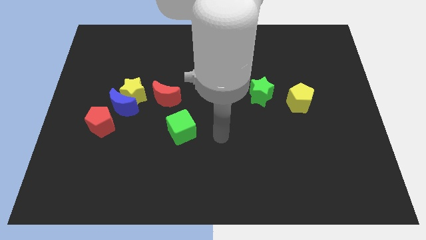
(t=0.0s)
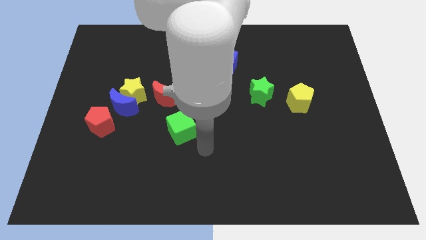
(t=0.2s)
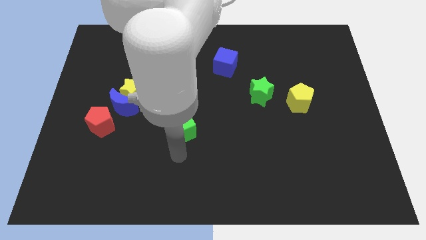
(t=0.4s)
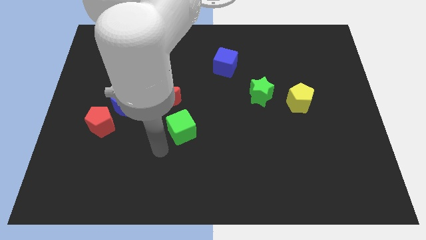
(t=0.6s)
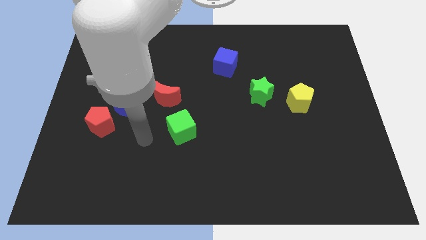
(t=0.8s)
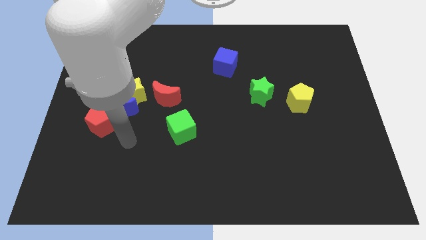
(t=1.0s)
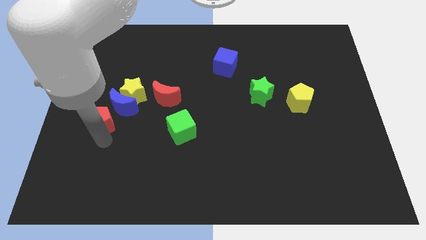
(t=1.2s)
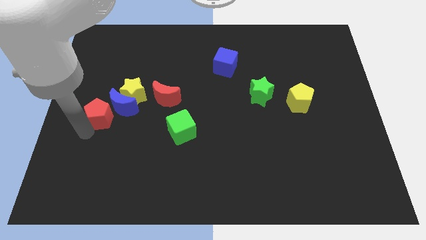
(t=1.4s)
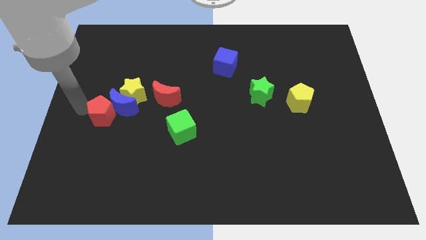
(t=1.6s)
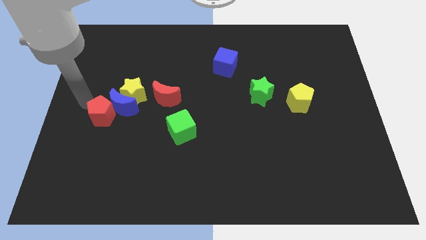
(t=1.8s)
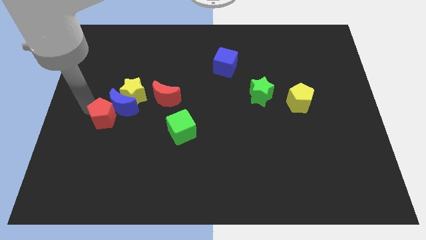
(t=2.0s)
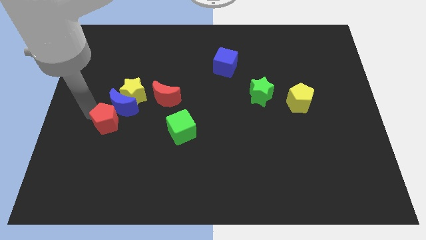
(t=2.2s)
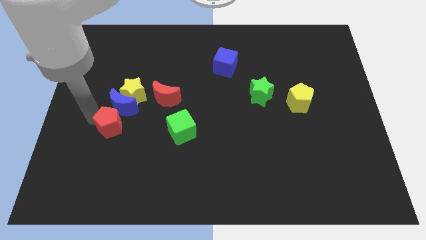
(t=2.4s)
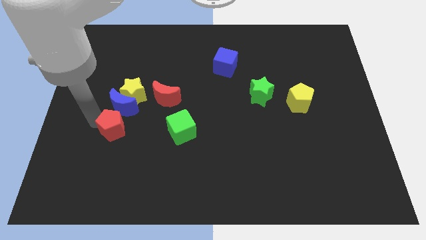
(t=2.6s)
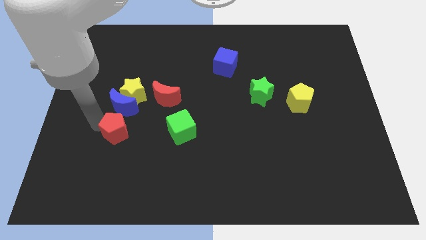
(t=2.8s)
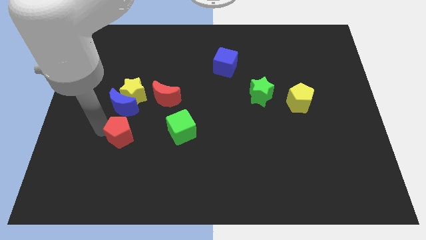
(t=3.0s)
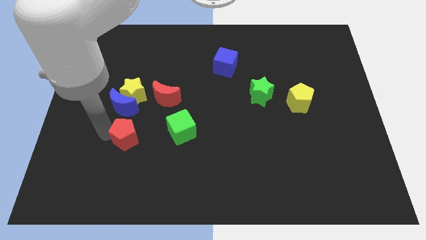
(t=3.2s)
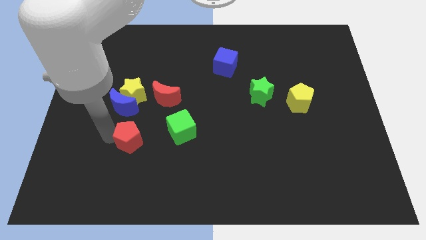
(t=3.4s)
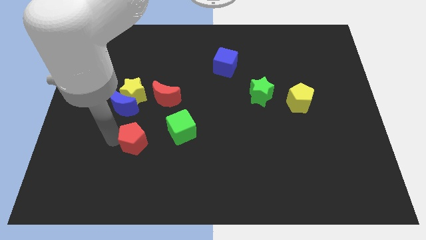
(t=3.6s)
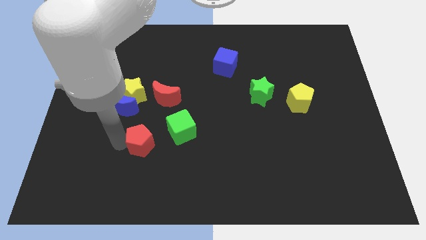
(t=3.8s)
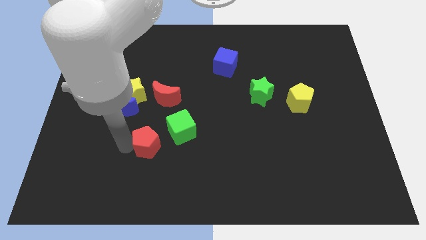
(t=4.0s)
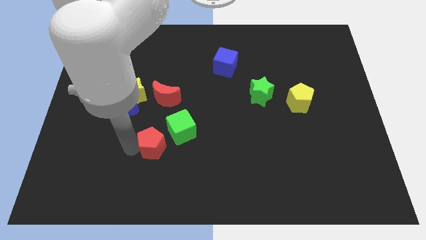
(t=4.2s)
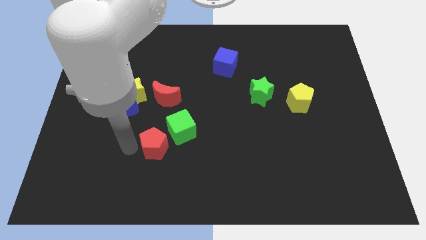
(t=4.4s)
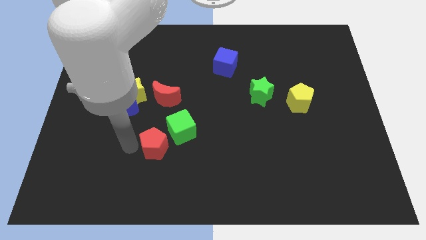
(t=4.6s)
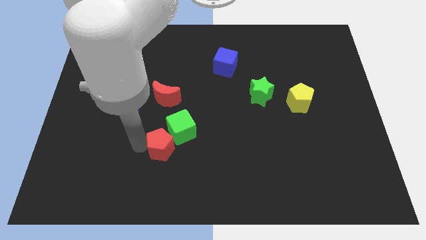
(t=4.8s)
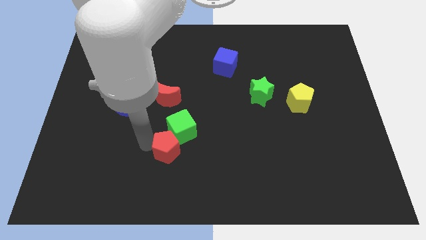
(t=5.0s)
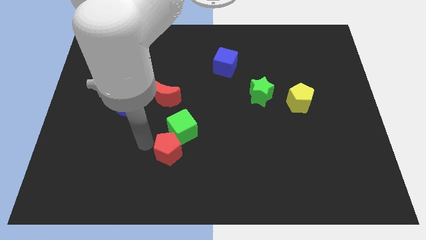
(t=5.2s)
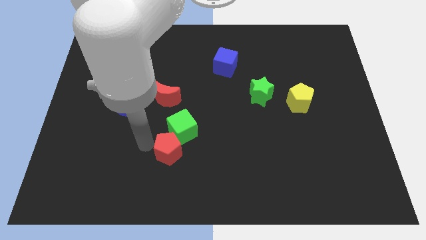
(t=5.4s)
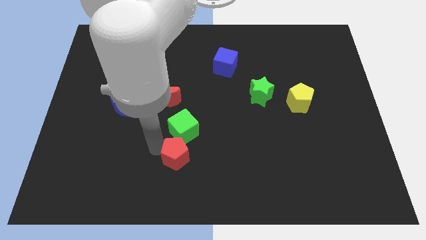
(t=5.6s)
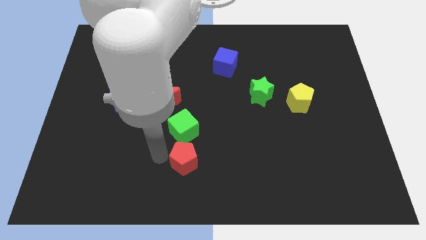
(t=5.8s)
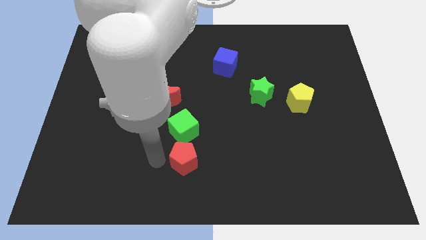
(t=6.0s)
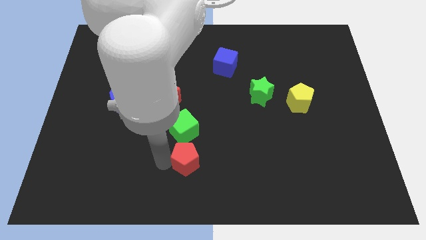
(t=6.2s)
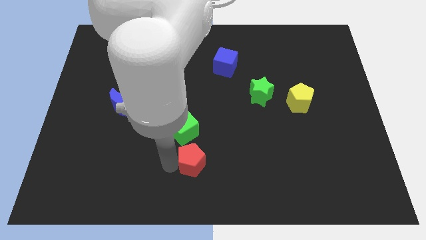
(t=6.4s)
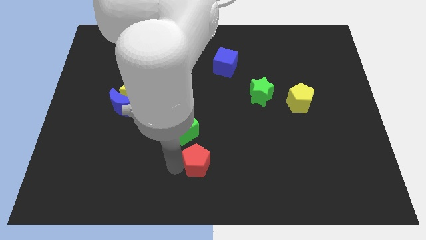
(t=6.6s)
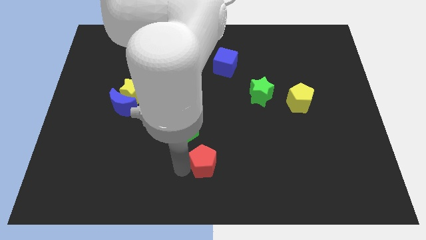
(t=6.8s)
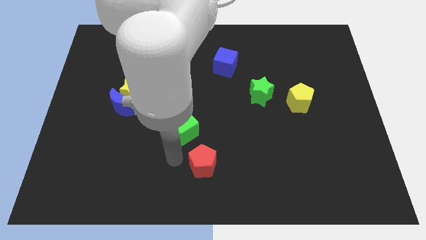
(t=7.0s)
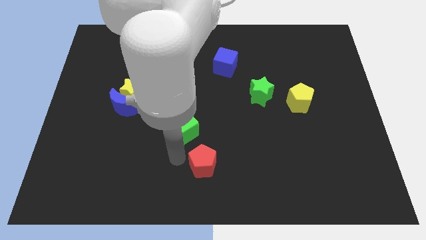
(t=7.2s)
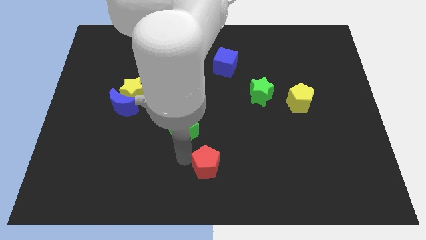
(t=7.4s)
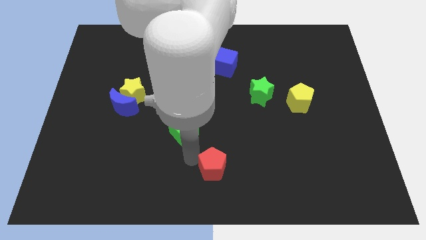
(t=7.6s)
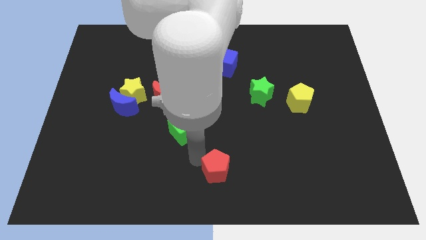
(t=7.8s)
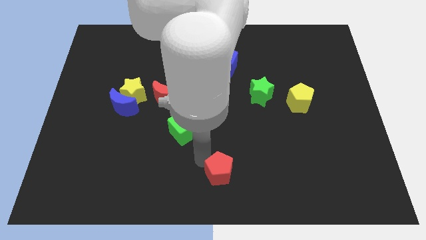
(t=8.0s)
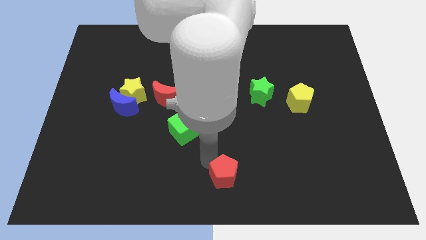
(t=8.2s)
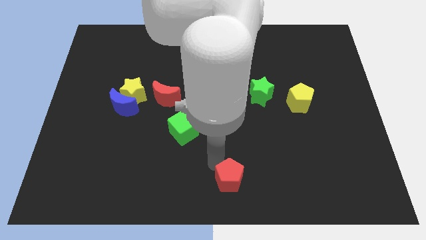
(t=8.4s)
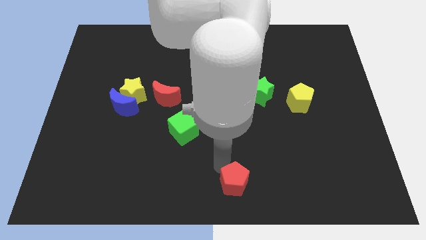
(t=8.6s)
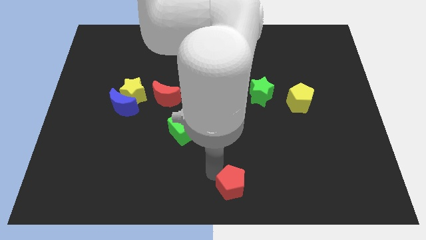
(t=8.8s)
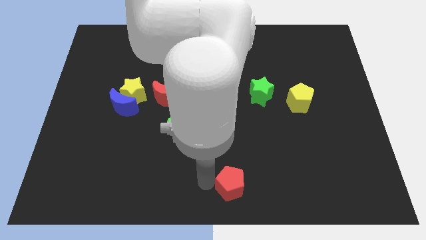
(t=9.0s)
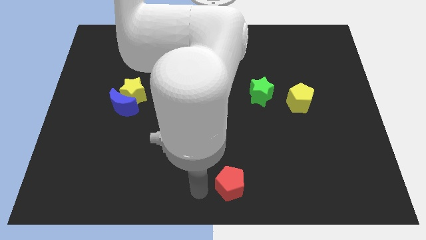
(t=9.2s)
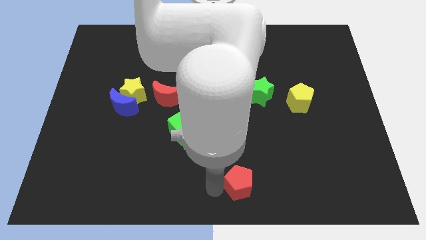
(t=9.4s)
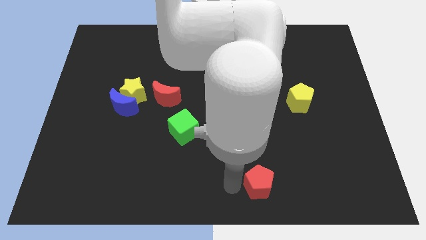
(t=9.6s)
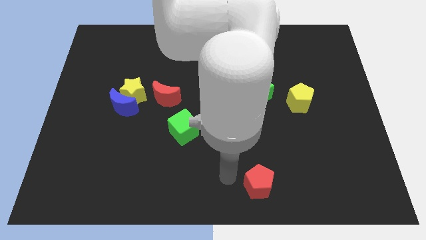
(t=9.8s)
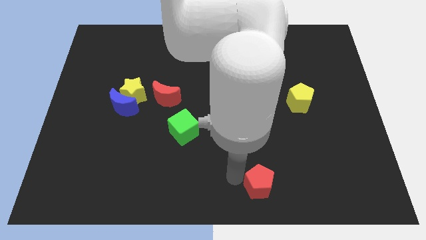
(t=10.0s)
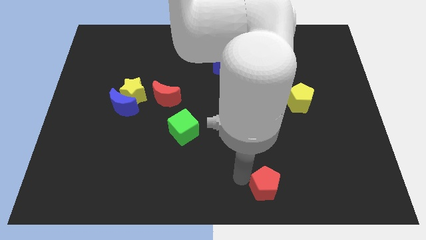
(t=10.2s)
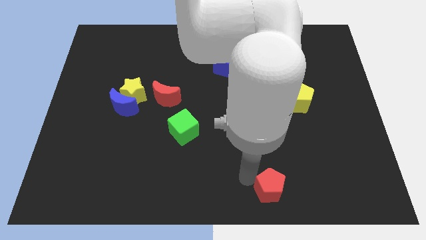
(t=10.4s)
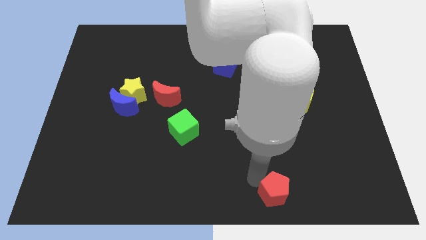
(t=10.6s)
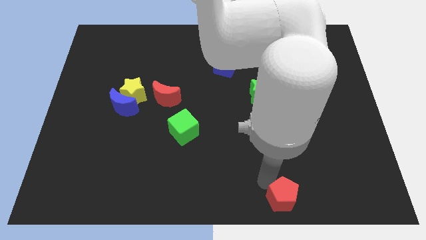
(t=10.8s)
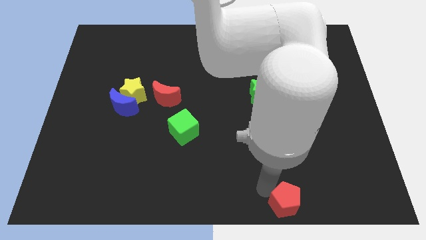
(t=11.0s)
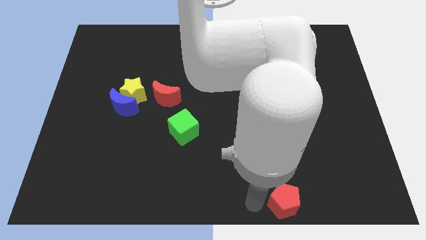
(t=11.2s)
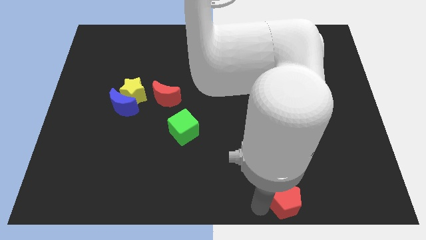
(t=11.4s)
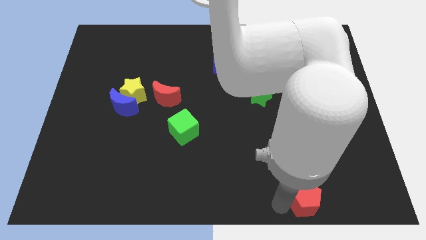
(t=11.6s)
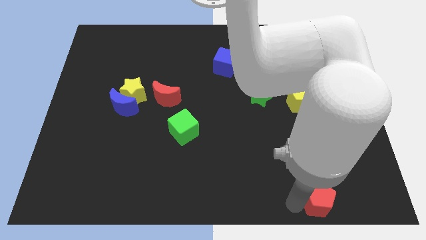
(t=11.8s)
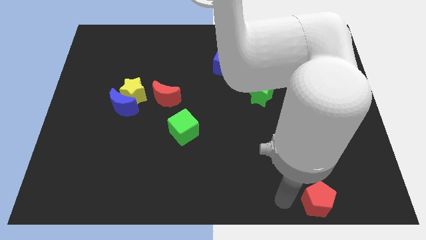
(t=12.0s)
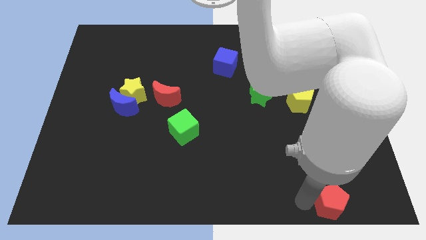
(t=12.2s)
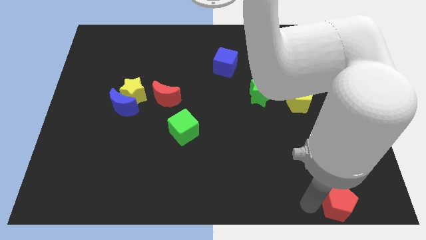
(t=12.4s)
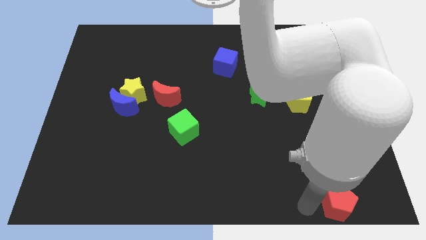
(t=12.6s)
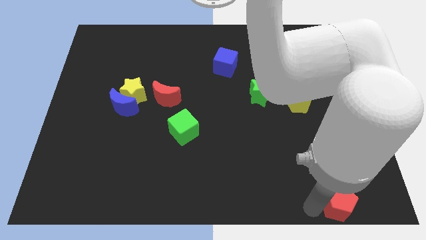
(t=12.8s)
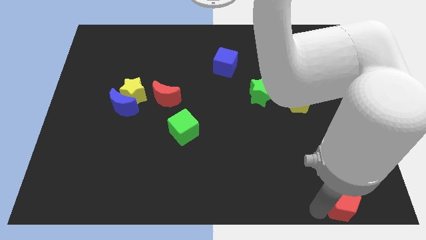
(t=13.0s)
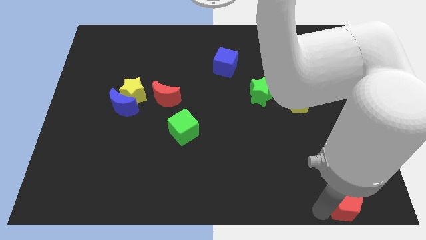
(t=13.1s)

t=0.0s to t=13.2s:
move the red pentagon to the bottom right

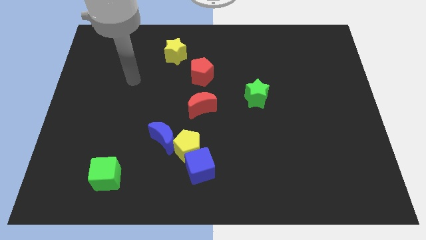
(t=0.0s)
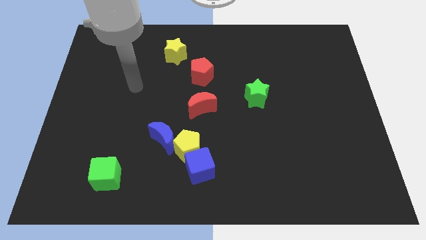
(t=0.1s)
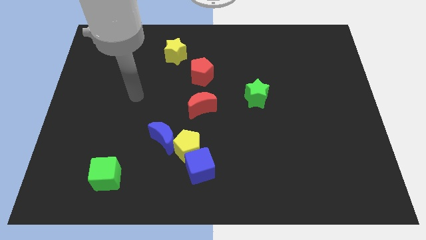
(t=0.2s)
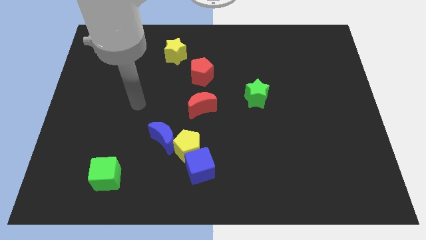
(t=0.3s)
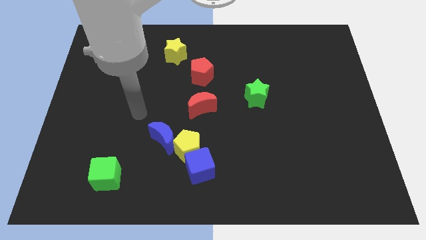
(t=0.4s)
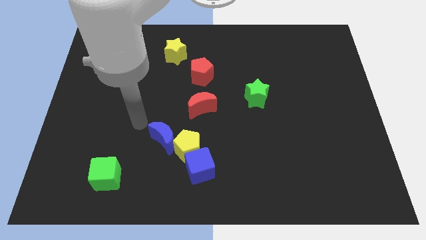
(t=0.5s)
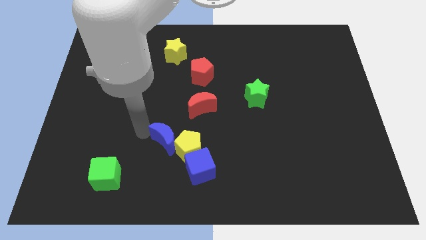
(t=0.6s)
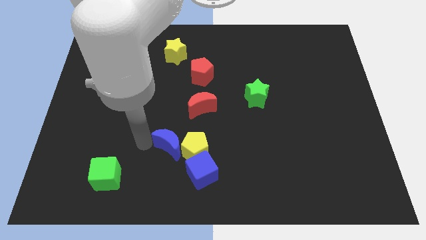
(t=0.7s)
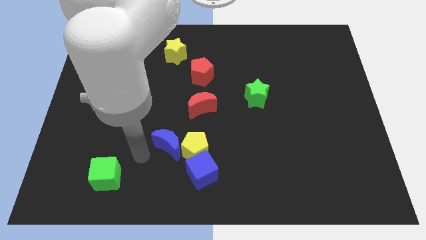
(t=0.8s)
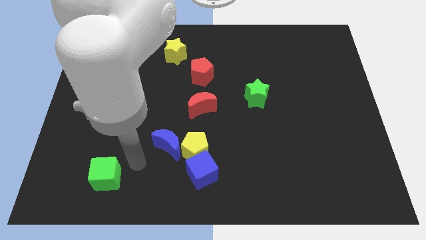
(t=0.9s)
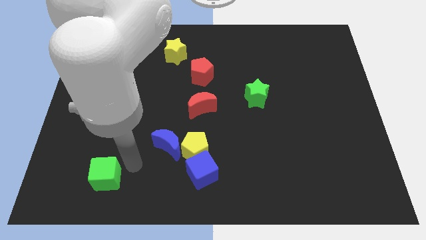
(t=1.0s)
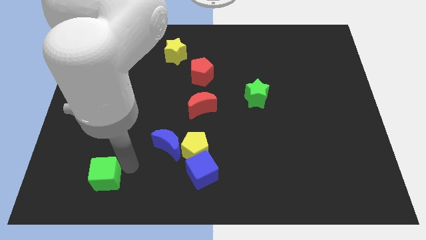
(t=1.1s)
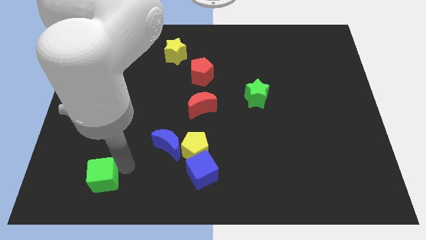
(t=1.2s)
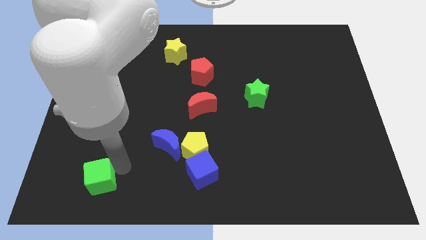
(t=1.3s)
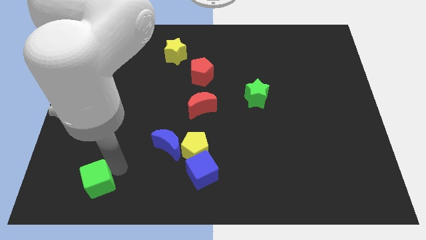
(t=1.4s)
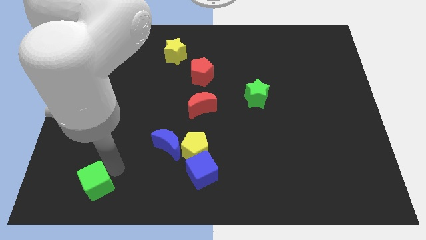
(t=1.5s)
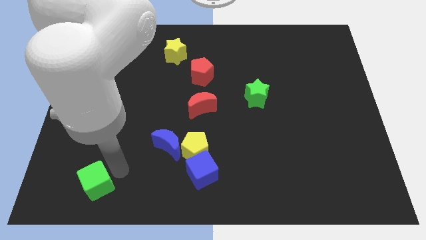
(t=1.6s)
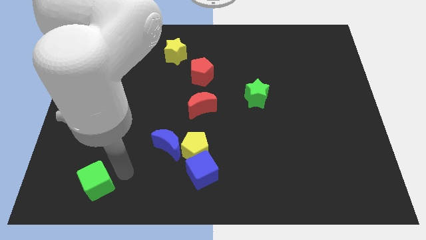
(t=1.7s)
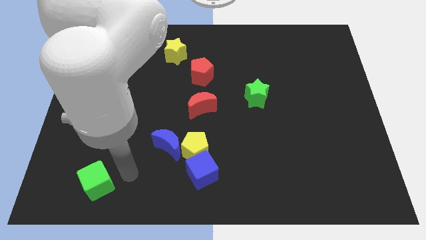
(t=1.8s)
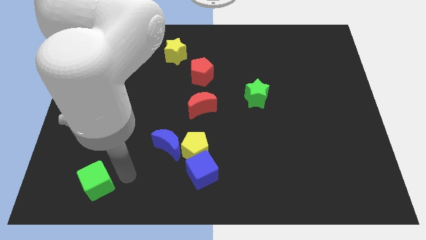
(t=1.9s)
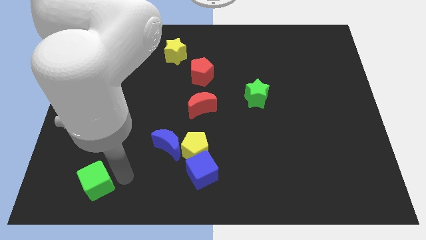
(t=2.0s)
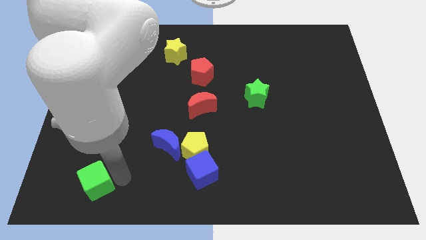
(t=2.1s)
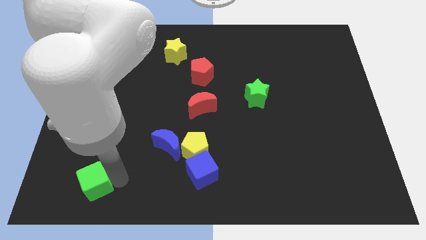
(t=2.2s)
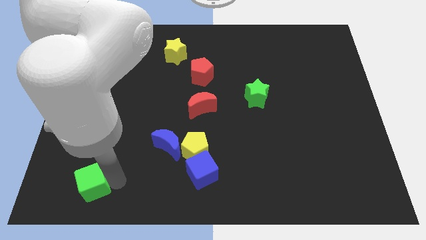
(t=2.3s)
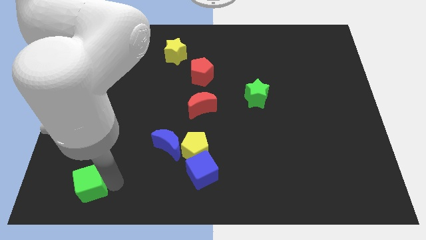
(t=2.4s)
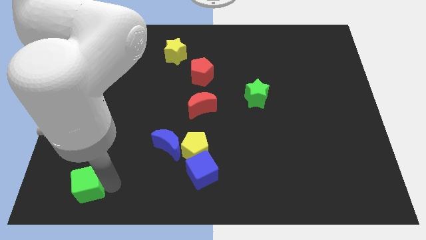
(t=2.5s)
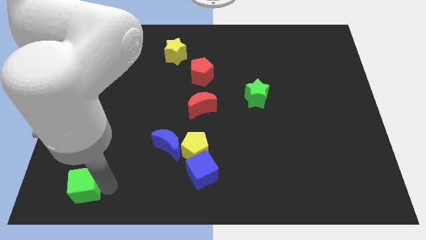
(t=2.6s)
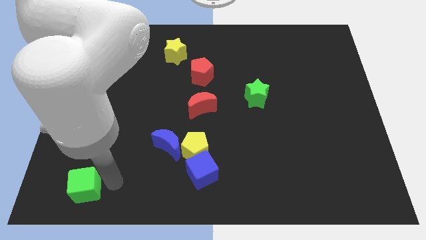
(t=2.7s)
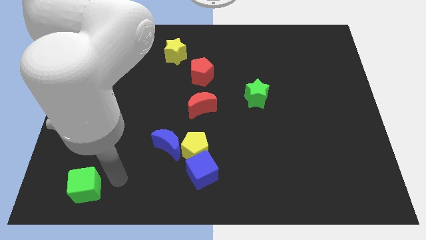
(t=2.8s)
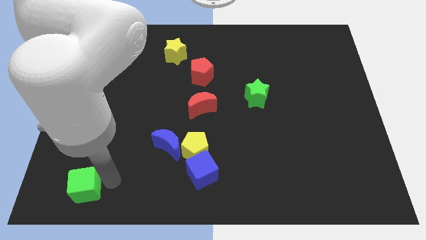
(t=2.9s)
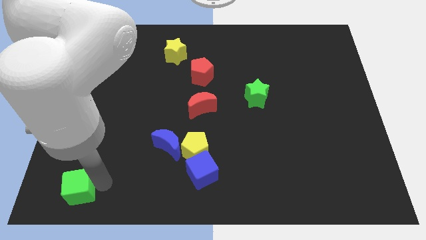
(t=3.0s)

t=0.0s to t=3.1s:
move the green cube to the bottom left of the board
